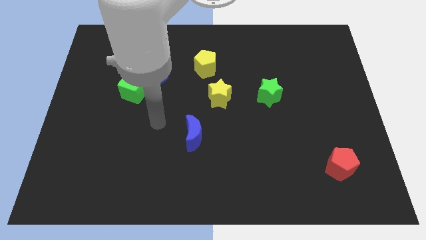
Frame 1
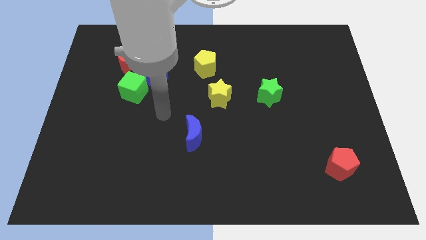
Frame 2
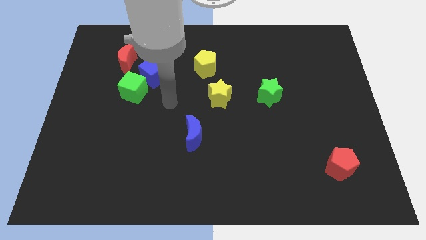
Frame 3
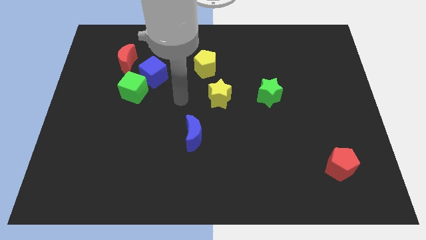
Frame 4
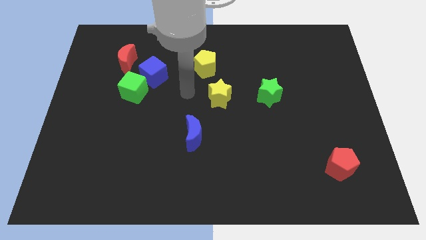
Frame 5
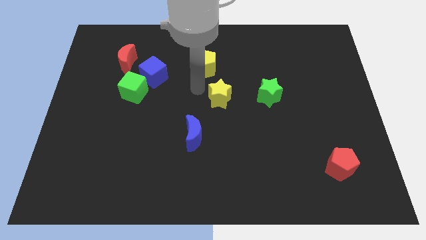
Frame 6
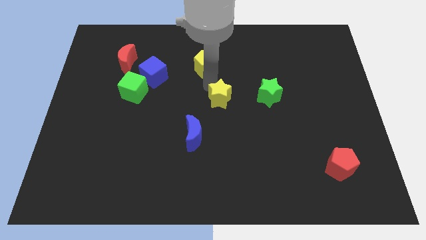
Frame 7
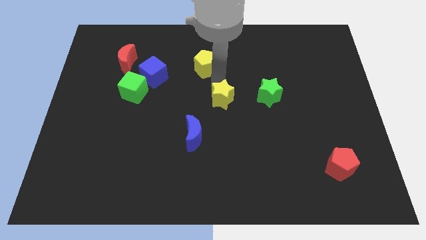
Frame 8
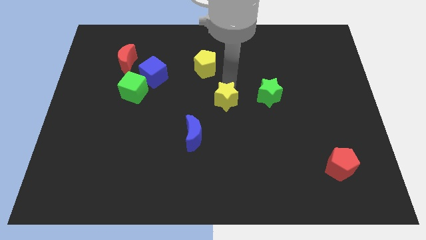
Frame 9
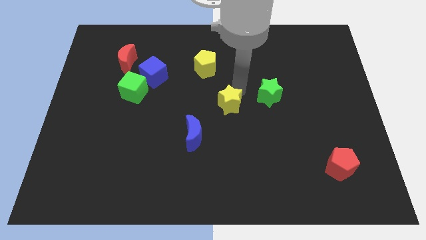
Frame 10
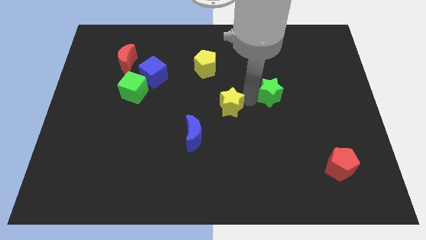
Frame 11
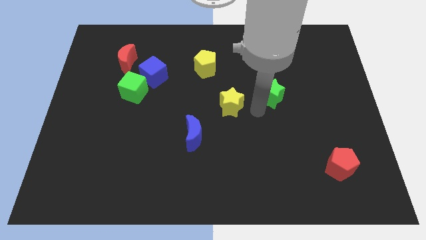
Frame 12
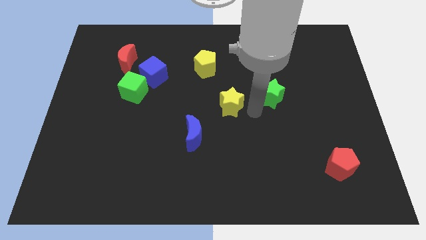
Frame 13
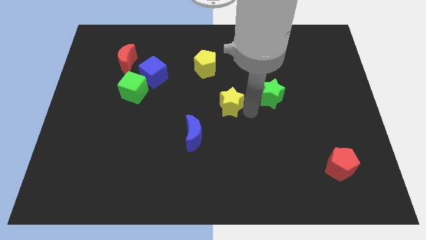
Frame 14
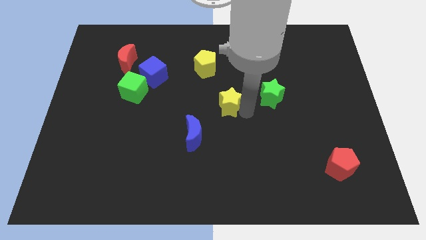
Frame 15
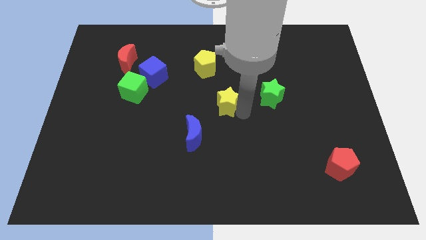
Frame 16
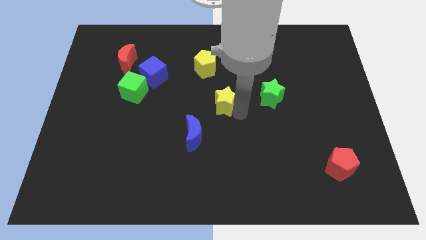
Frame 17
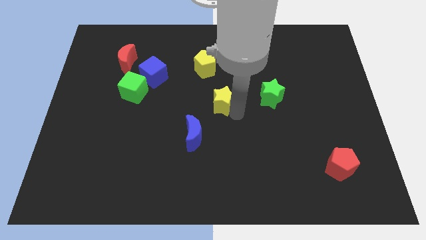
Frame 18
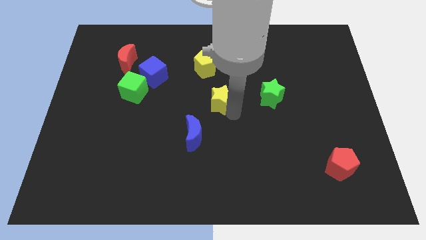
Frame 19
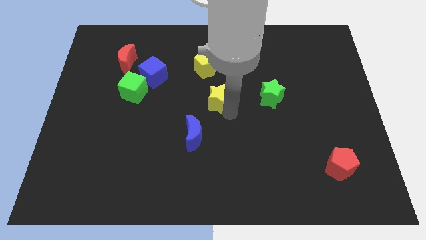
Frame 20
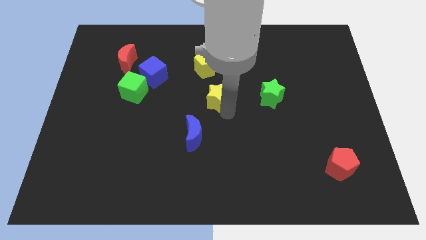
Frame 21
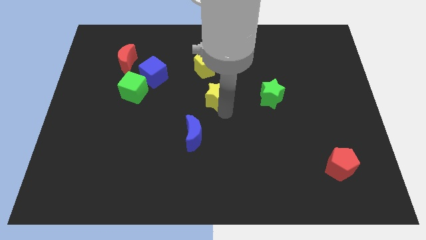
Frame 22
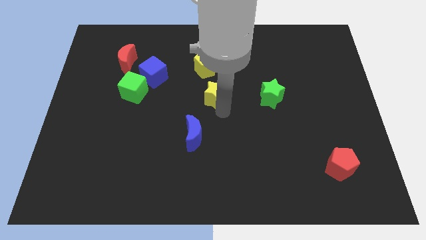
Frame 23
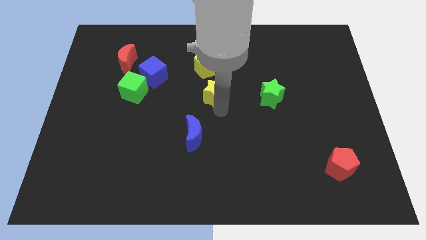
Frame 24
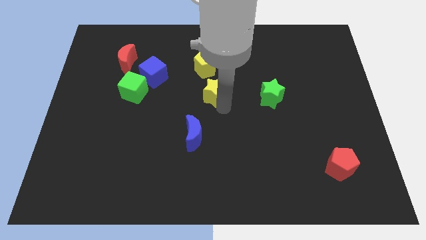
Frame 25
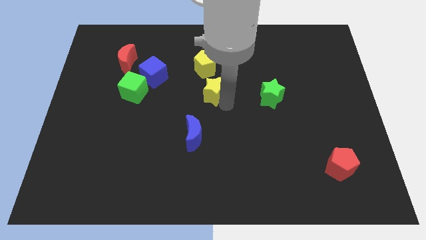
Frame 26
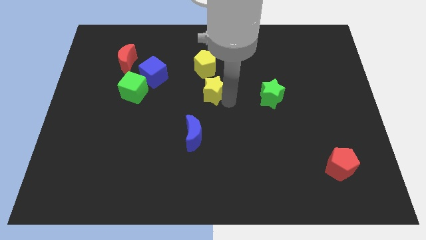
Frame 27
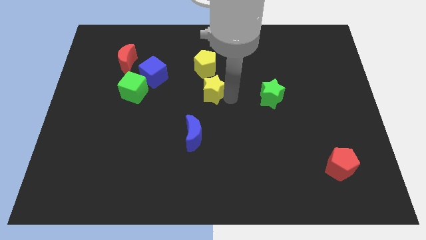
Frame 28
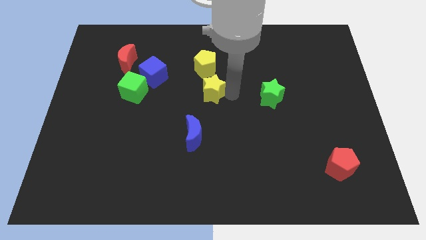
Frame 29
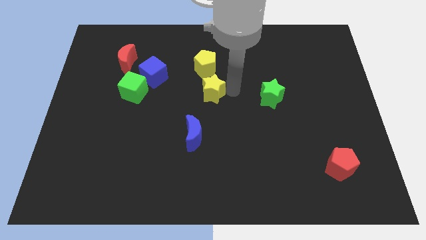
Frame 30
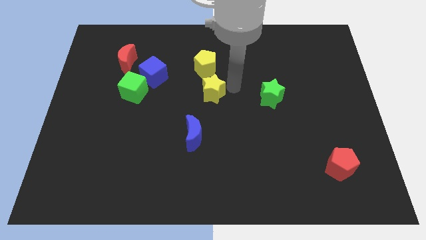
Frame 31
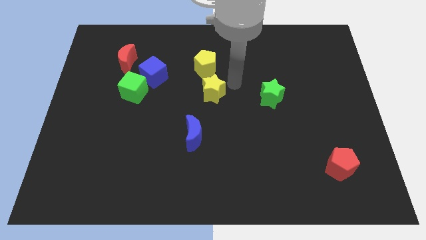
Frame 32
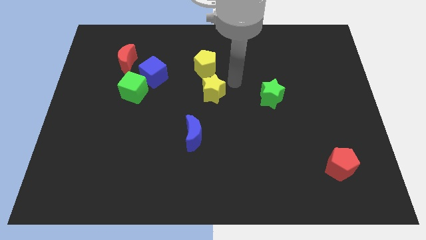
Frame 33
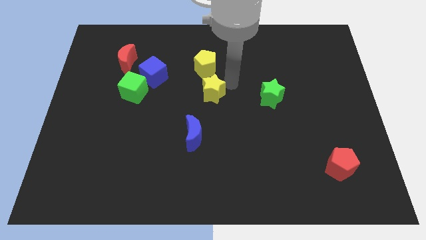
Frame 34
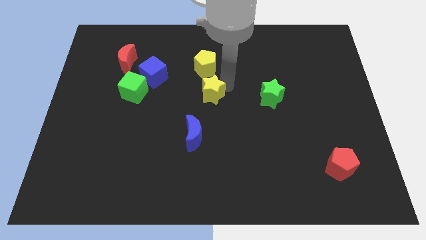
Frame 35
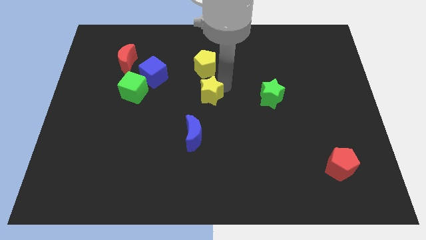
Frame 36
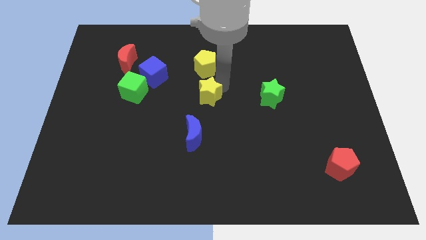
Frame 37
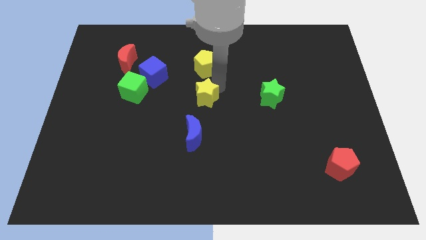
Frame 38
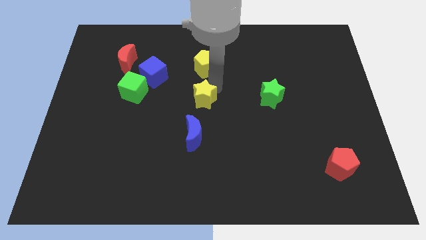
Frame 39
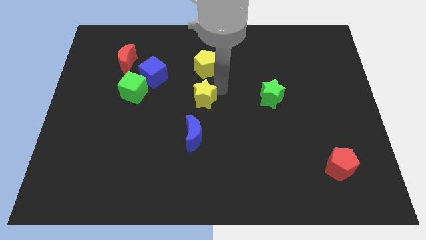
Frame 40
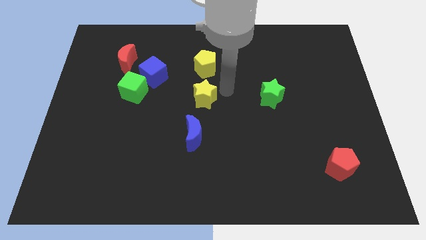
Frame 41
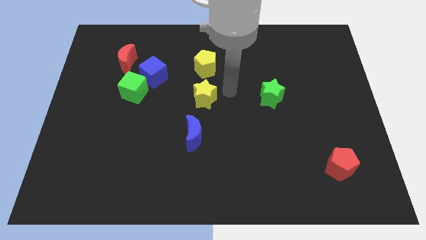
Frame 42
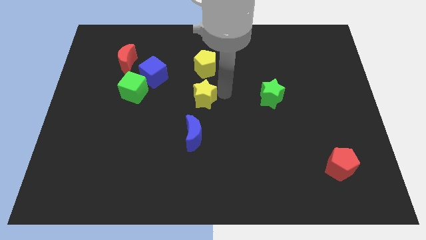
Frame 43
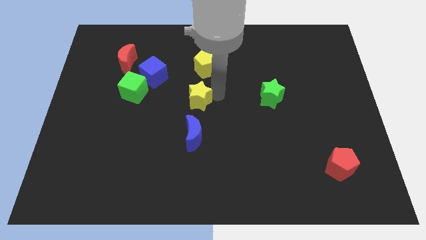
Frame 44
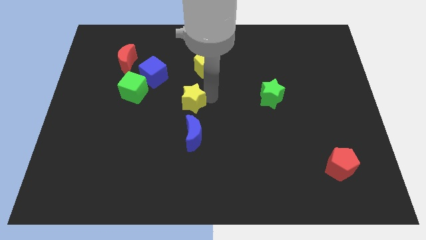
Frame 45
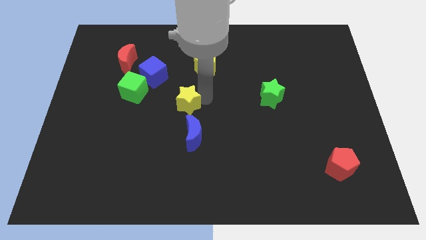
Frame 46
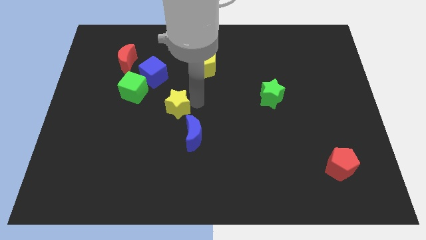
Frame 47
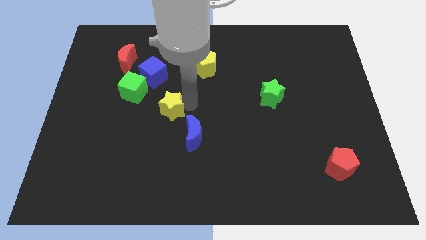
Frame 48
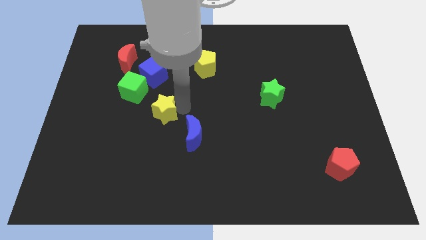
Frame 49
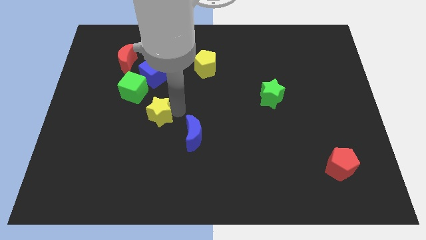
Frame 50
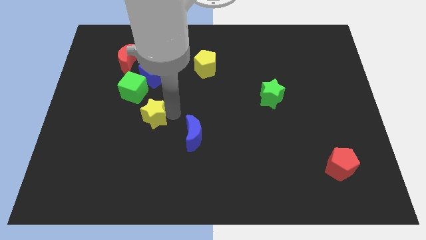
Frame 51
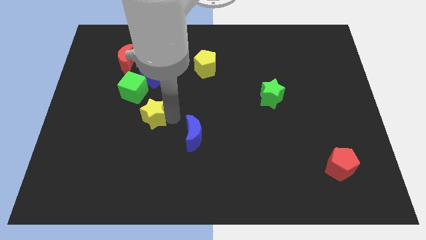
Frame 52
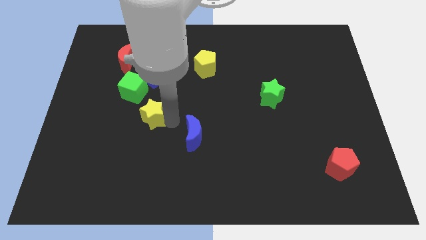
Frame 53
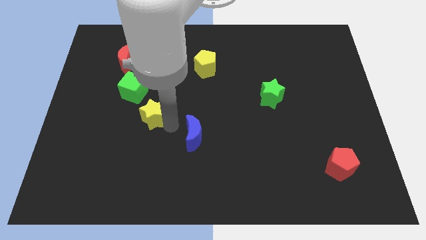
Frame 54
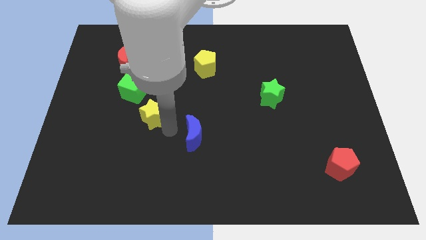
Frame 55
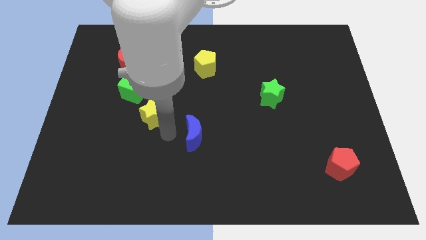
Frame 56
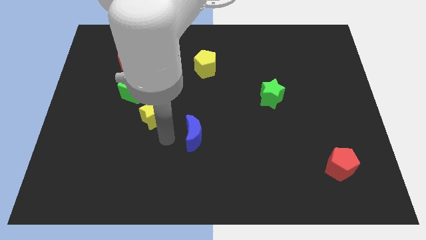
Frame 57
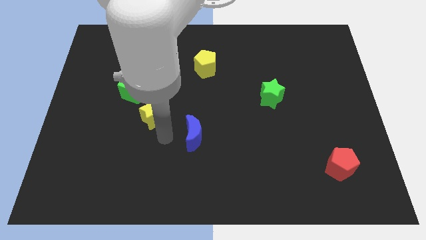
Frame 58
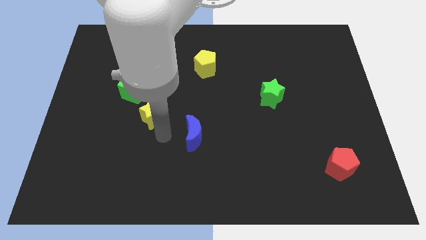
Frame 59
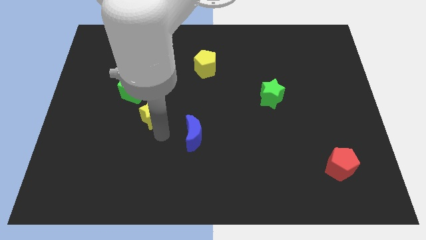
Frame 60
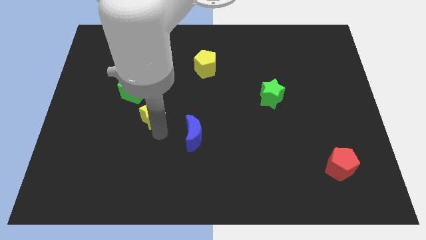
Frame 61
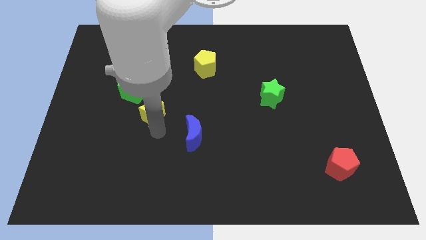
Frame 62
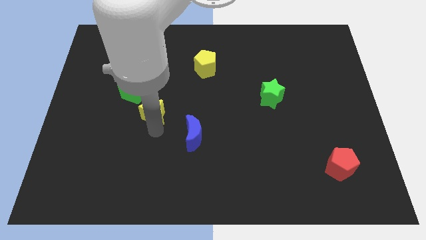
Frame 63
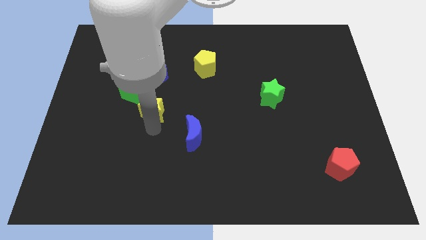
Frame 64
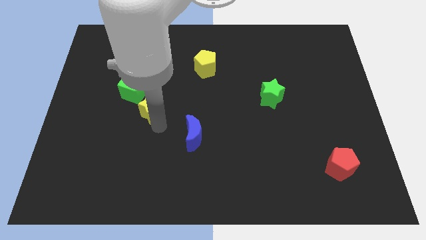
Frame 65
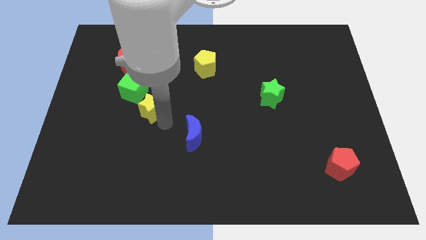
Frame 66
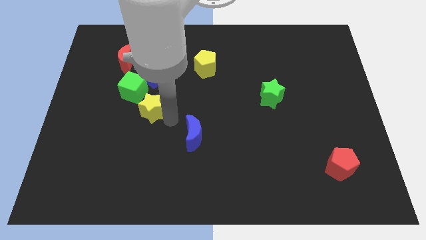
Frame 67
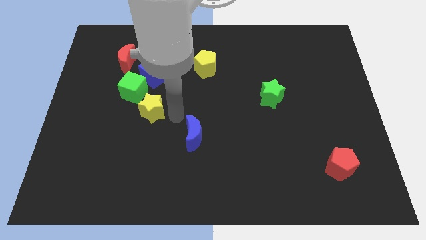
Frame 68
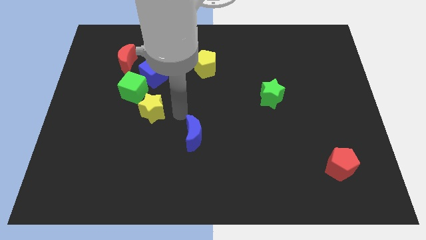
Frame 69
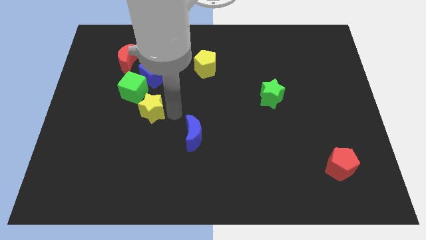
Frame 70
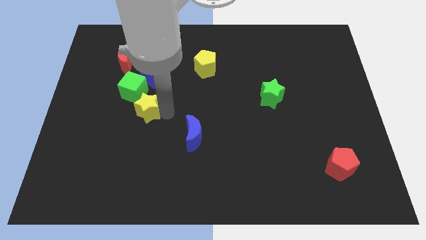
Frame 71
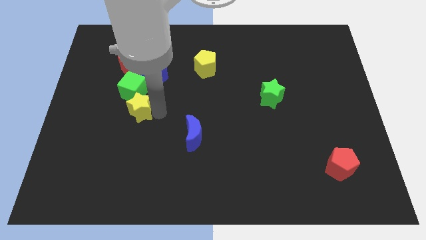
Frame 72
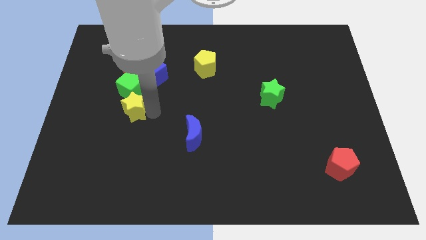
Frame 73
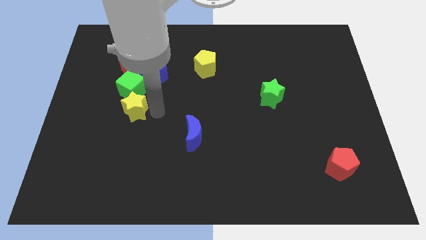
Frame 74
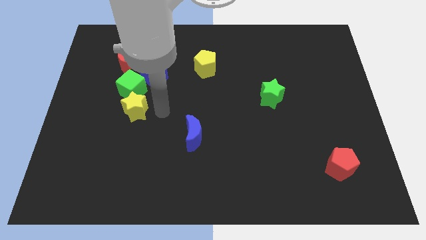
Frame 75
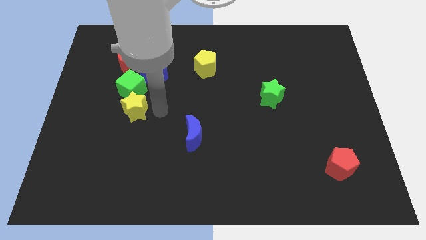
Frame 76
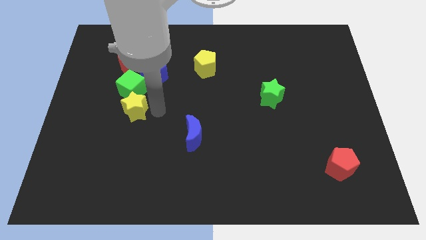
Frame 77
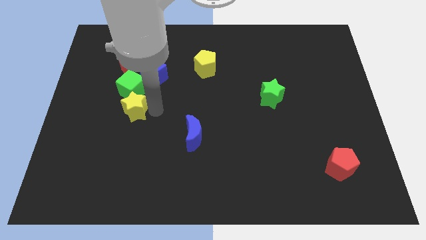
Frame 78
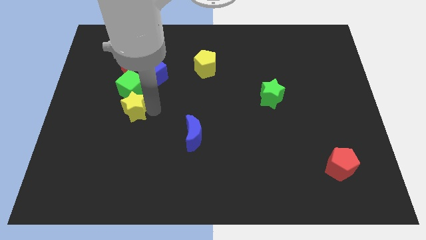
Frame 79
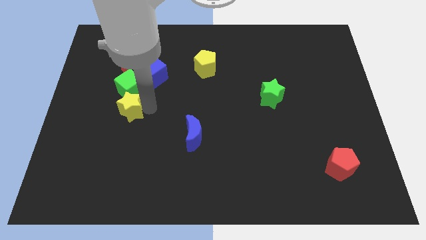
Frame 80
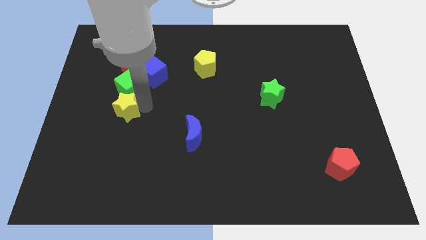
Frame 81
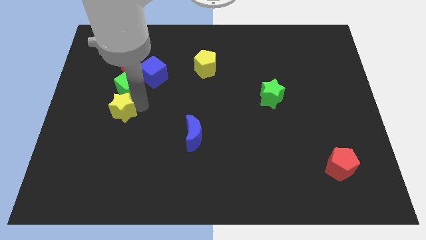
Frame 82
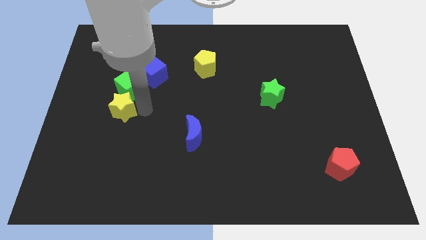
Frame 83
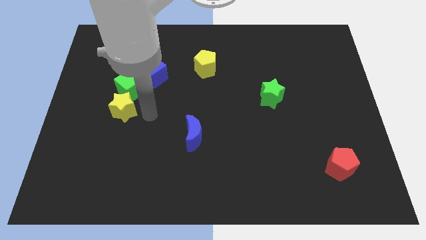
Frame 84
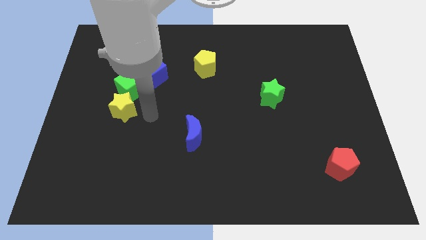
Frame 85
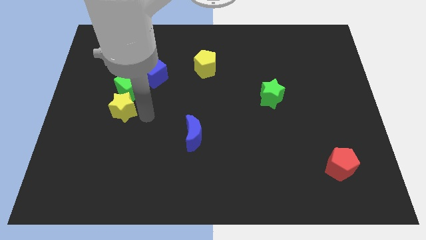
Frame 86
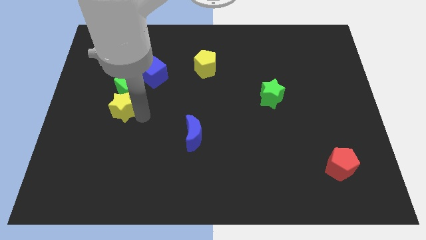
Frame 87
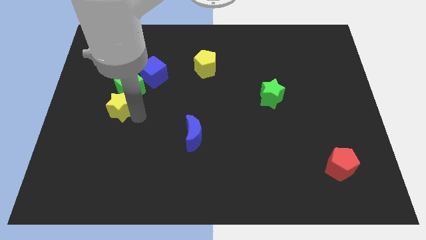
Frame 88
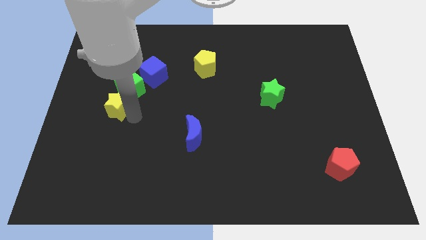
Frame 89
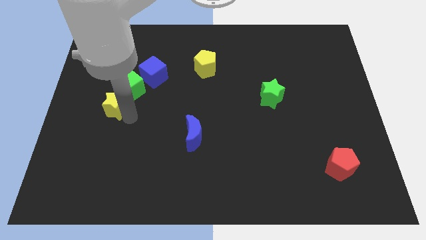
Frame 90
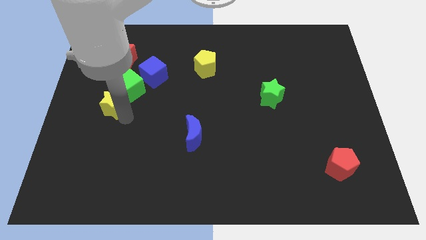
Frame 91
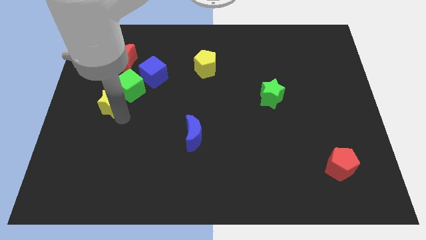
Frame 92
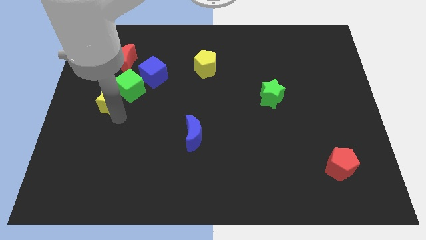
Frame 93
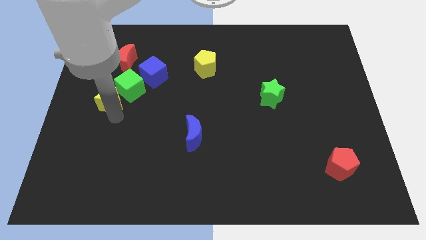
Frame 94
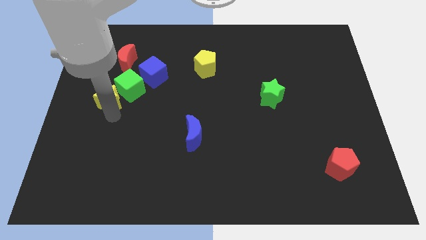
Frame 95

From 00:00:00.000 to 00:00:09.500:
push the yellow star to the left side of the board
